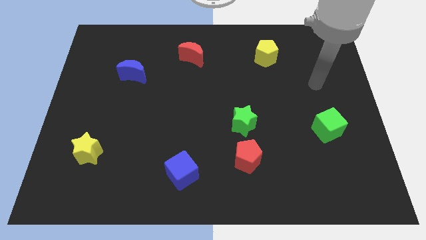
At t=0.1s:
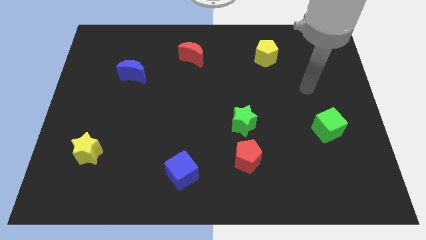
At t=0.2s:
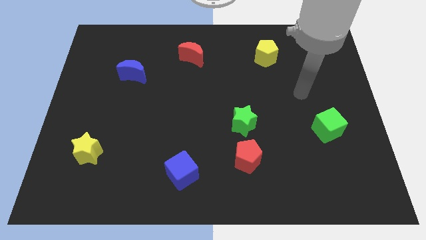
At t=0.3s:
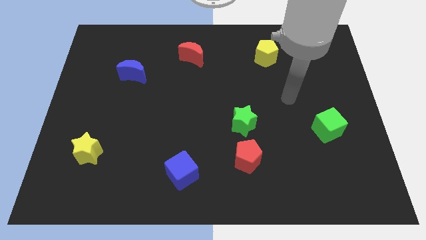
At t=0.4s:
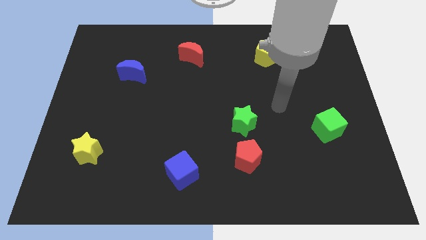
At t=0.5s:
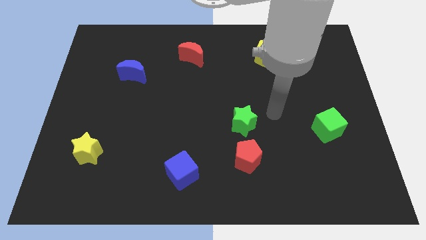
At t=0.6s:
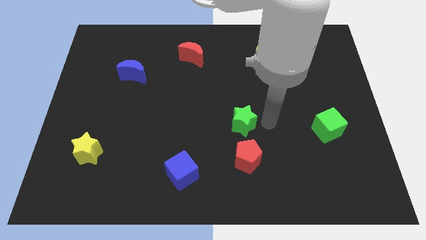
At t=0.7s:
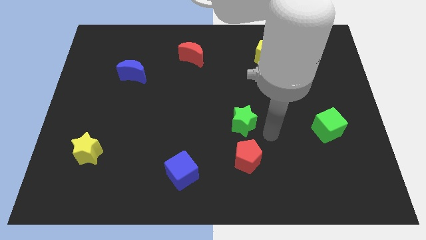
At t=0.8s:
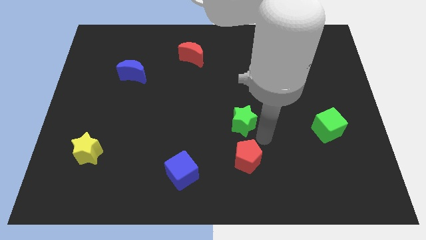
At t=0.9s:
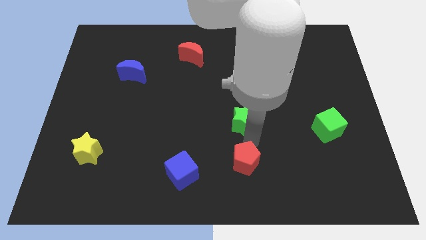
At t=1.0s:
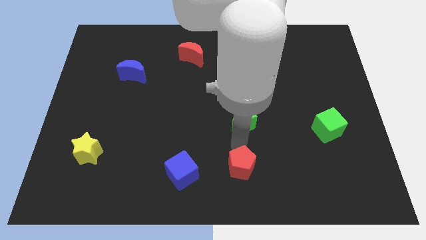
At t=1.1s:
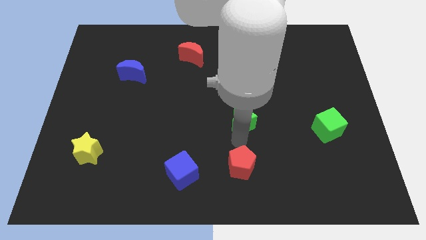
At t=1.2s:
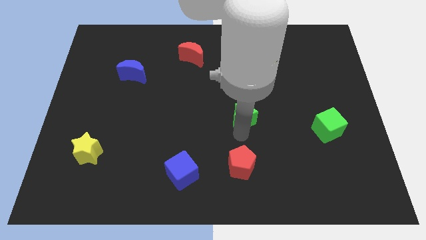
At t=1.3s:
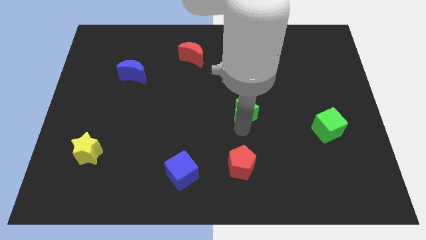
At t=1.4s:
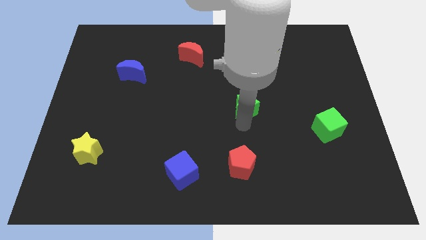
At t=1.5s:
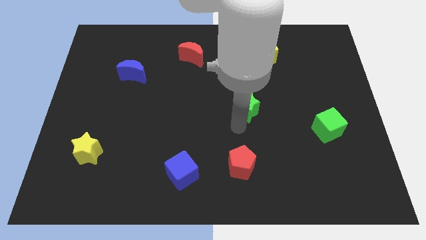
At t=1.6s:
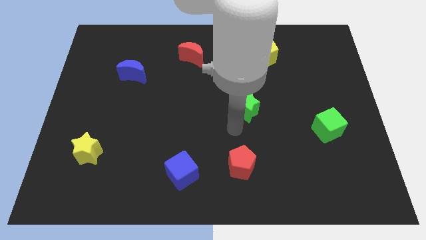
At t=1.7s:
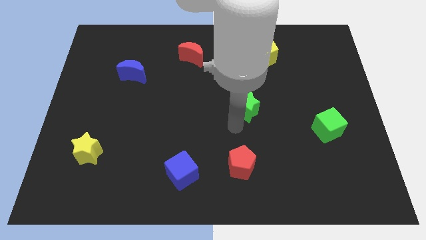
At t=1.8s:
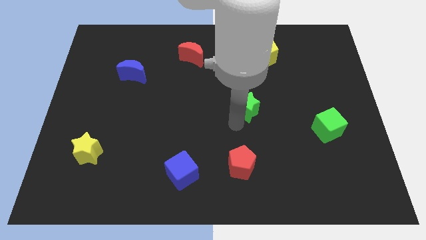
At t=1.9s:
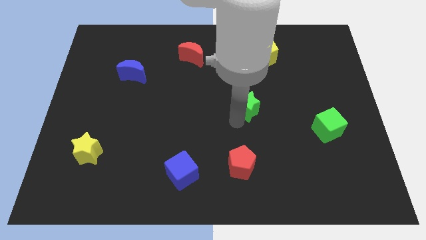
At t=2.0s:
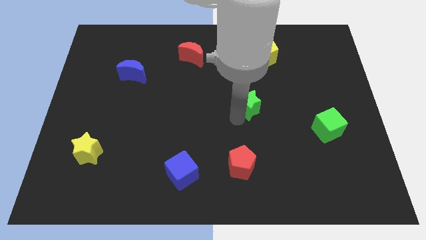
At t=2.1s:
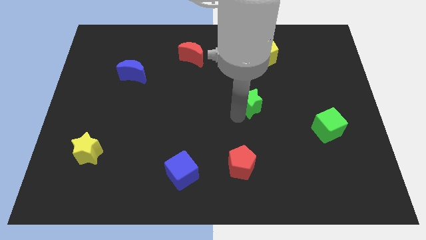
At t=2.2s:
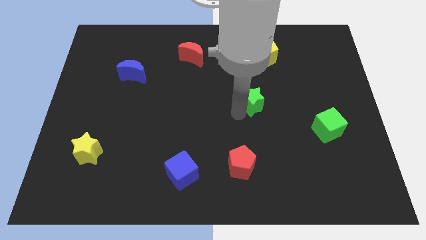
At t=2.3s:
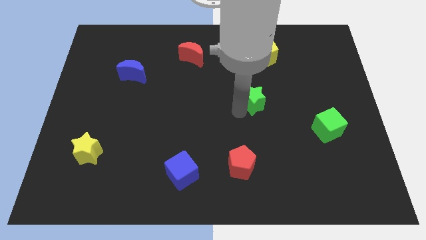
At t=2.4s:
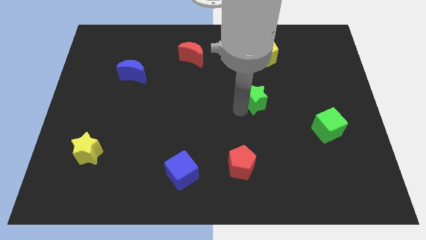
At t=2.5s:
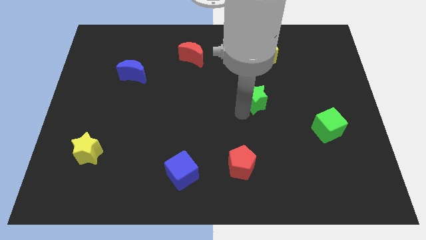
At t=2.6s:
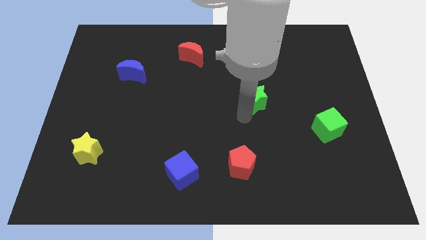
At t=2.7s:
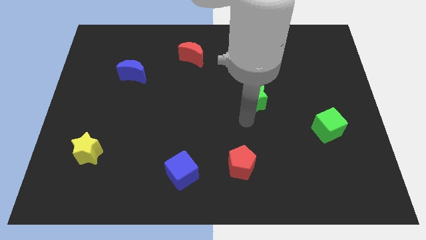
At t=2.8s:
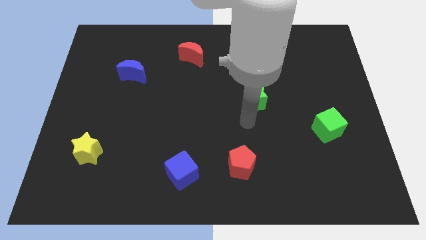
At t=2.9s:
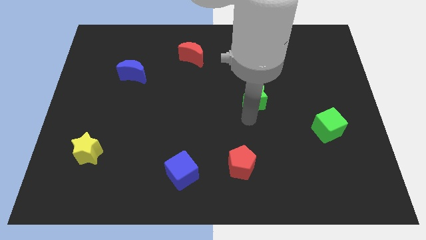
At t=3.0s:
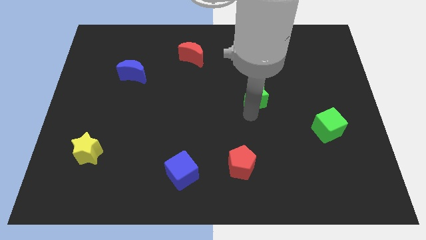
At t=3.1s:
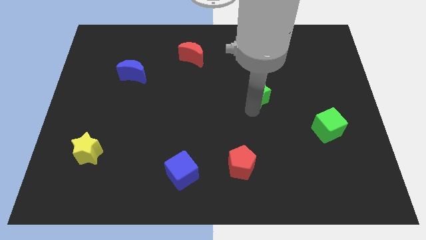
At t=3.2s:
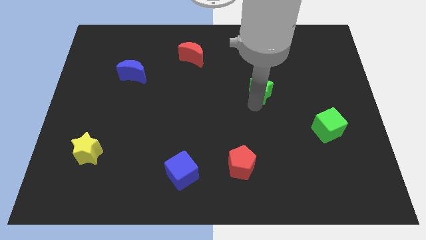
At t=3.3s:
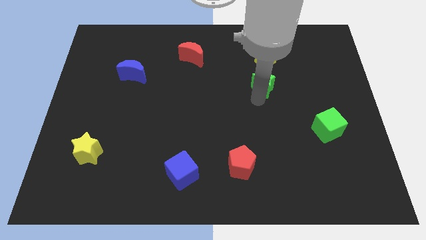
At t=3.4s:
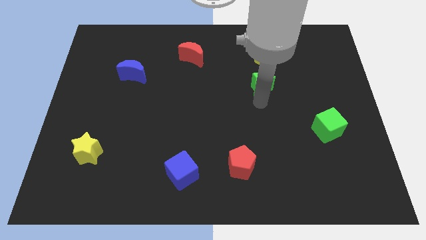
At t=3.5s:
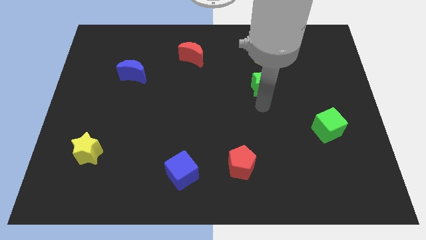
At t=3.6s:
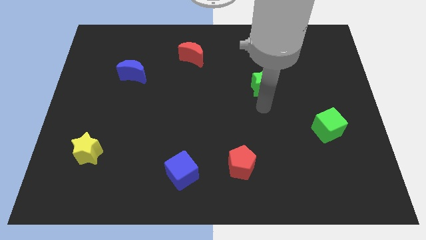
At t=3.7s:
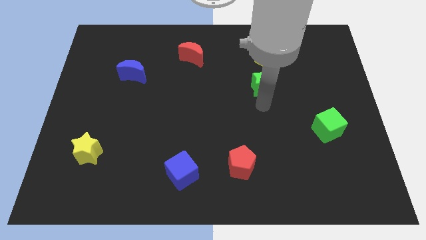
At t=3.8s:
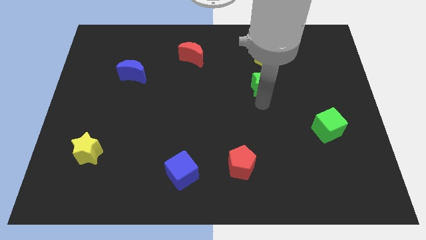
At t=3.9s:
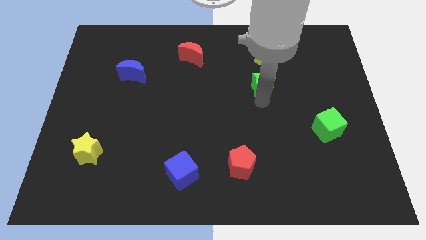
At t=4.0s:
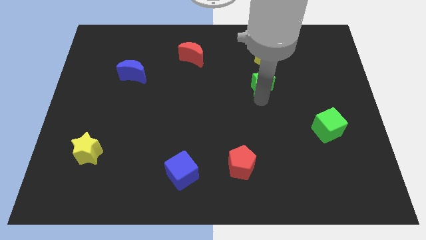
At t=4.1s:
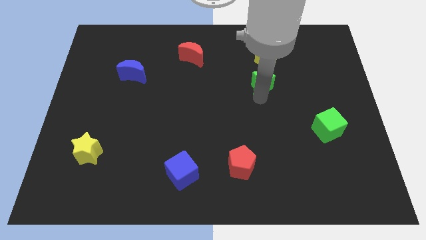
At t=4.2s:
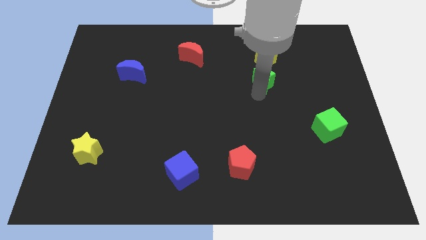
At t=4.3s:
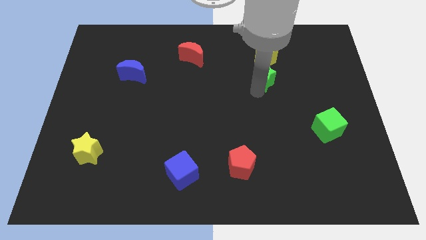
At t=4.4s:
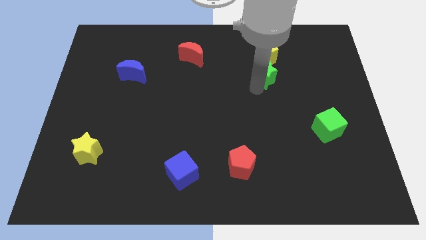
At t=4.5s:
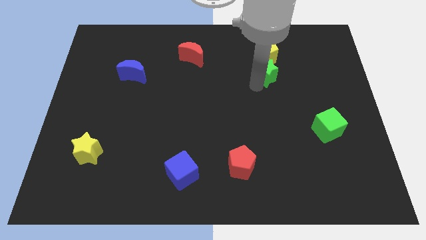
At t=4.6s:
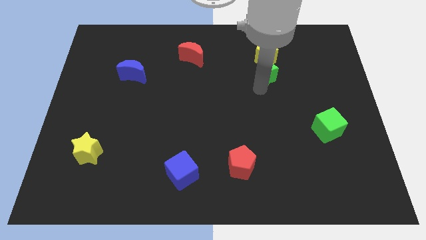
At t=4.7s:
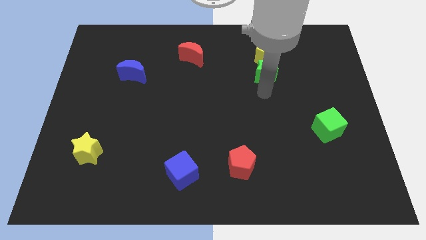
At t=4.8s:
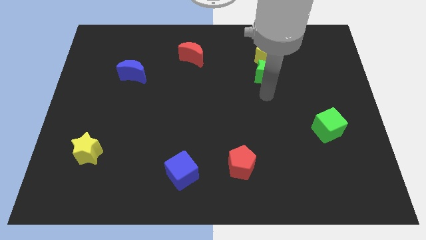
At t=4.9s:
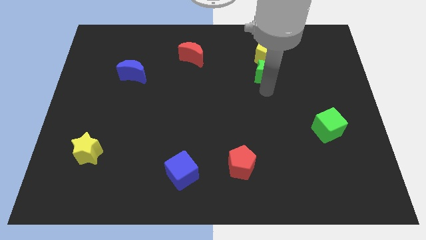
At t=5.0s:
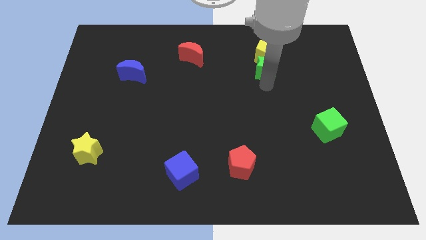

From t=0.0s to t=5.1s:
move the green star next to the yellow pentagon

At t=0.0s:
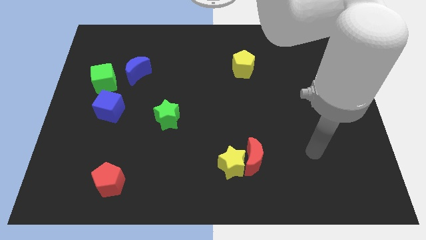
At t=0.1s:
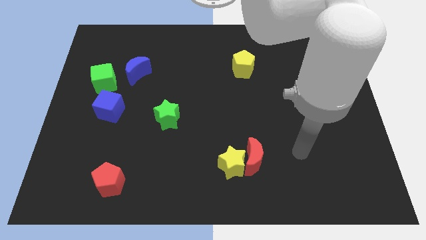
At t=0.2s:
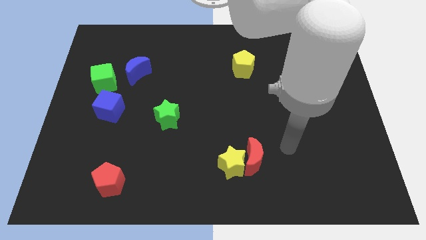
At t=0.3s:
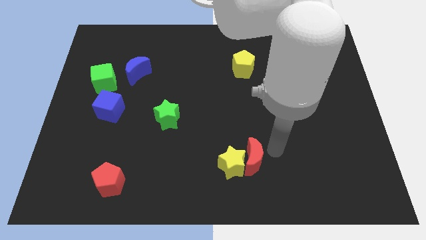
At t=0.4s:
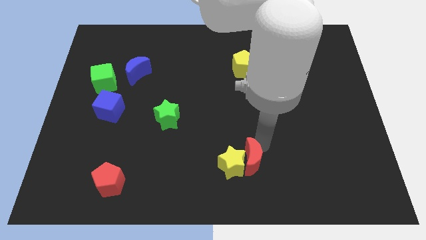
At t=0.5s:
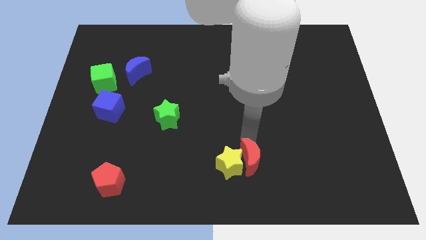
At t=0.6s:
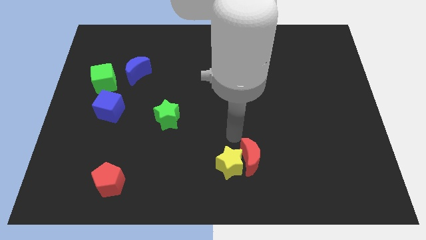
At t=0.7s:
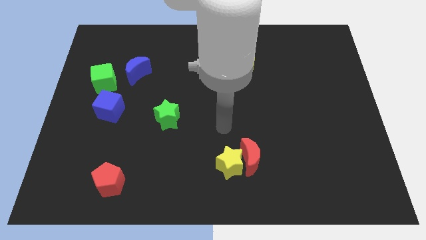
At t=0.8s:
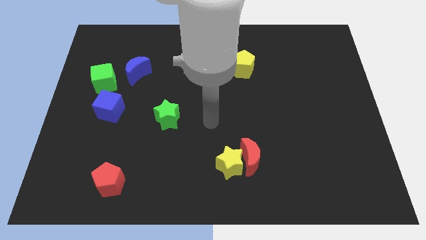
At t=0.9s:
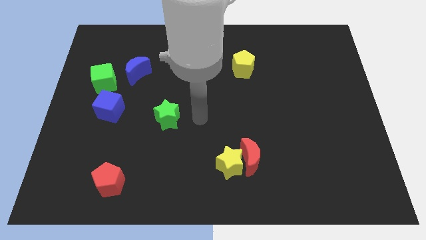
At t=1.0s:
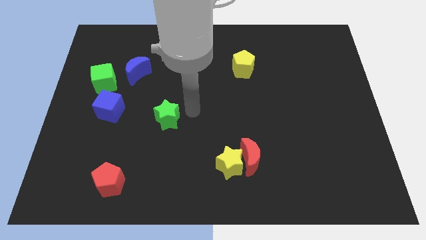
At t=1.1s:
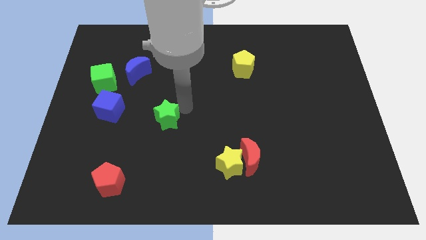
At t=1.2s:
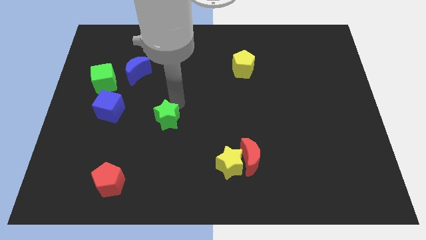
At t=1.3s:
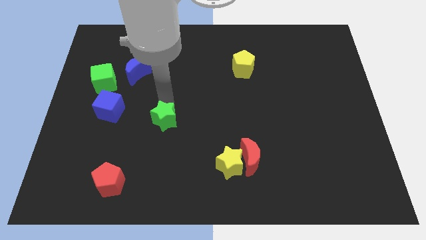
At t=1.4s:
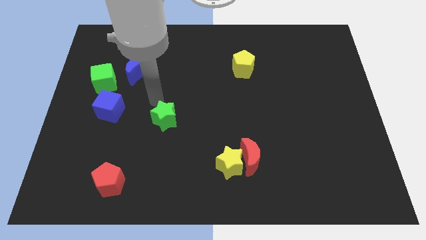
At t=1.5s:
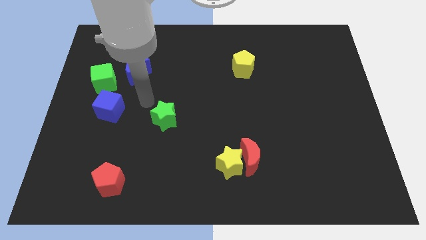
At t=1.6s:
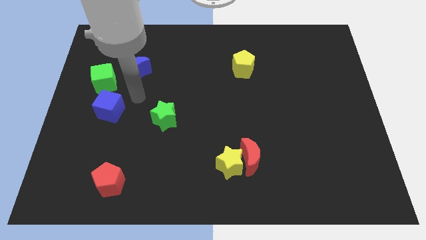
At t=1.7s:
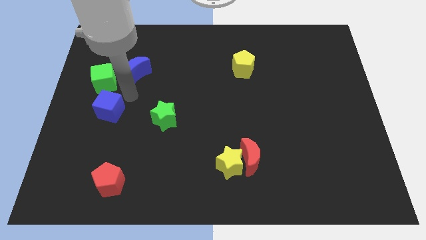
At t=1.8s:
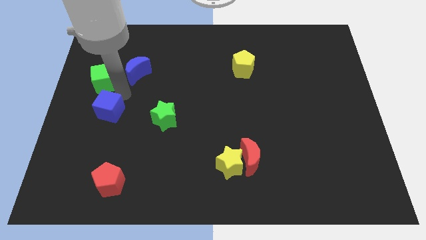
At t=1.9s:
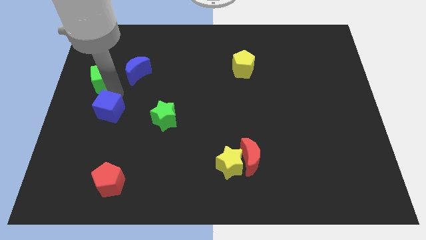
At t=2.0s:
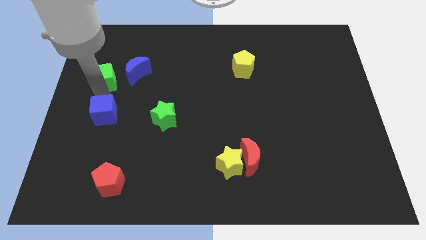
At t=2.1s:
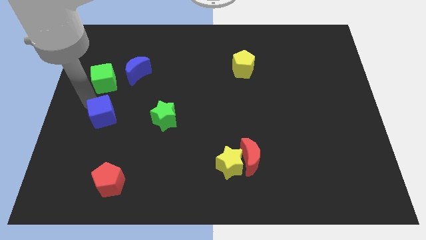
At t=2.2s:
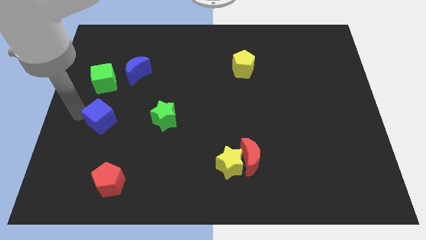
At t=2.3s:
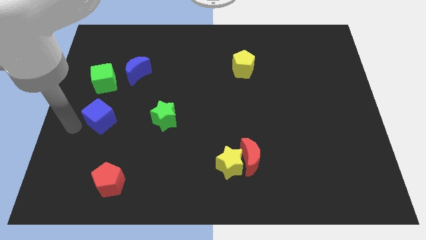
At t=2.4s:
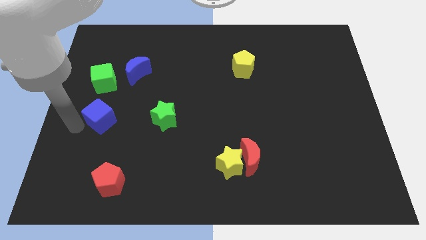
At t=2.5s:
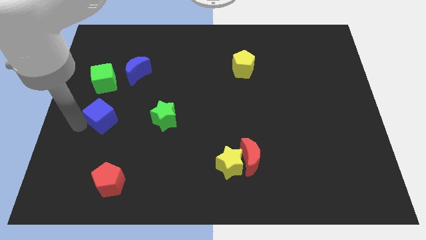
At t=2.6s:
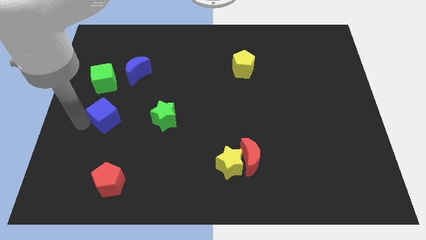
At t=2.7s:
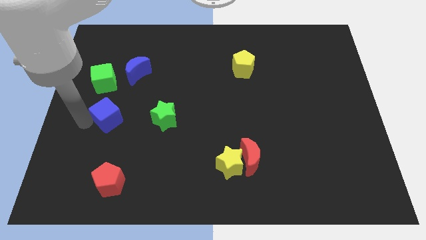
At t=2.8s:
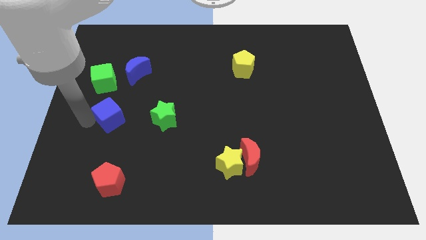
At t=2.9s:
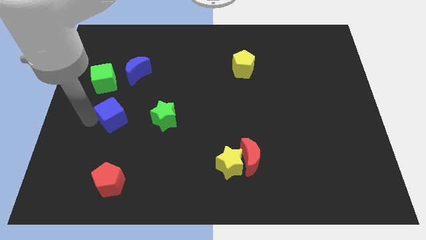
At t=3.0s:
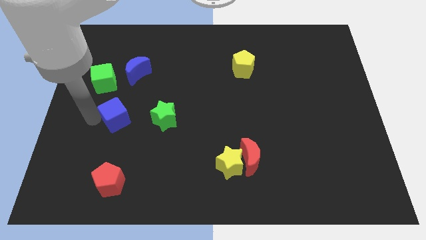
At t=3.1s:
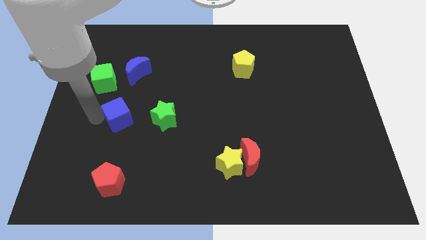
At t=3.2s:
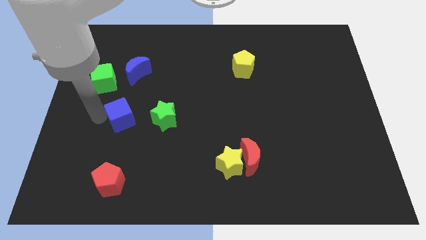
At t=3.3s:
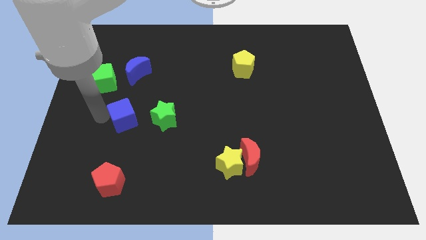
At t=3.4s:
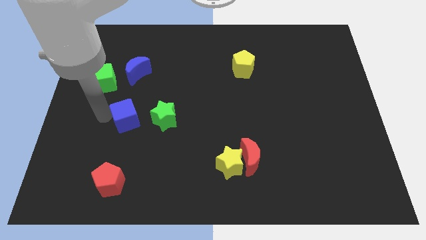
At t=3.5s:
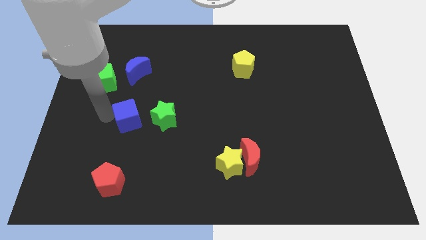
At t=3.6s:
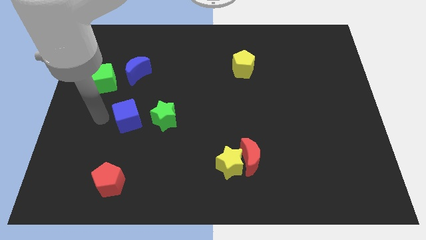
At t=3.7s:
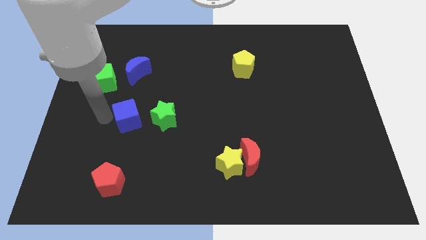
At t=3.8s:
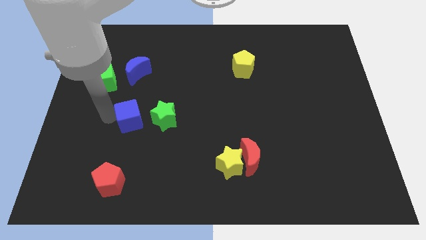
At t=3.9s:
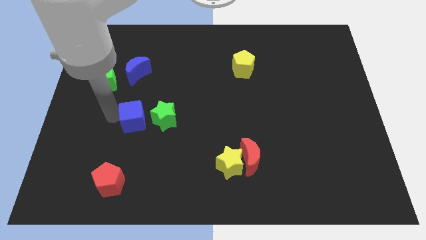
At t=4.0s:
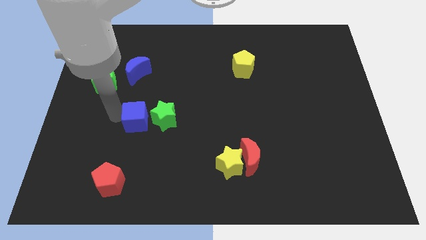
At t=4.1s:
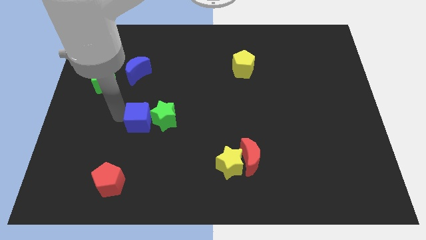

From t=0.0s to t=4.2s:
push the blue cube towards the green star
